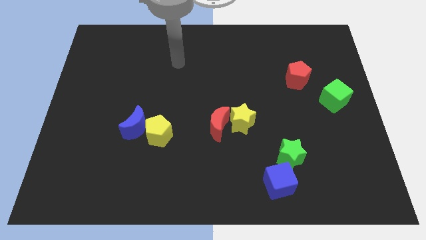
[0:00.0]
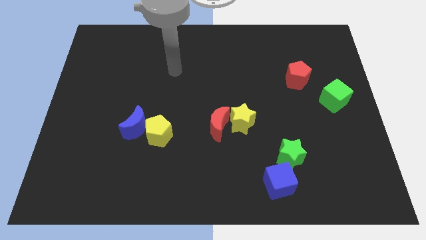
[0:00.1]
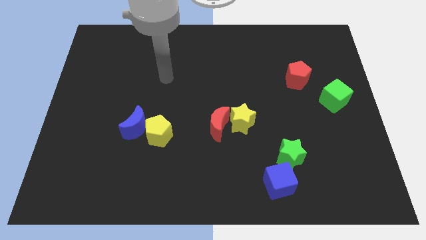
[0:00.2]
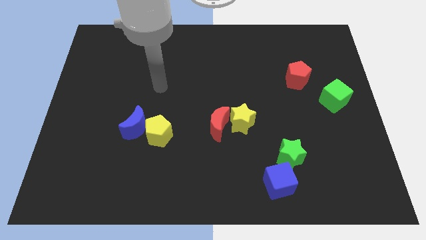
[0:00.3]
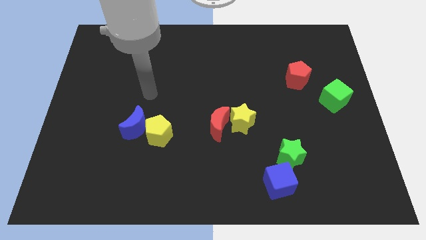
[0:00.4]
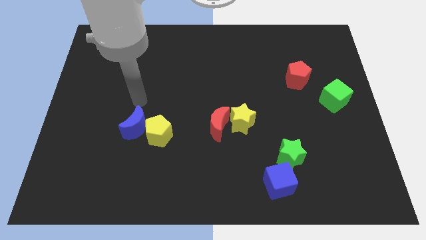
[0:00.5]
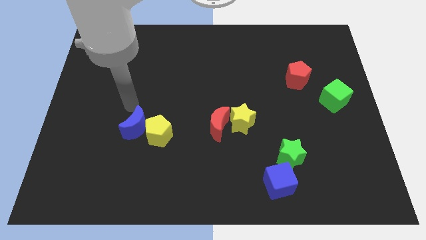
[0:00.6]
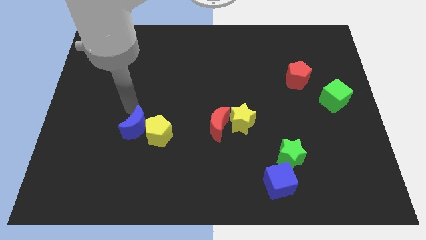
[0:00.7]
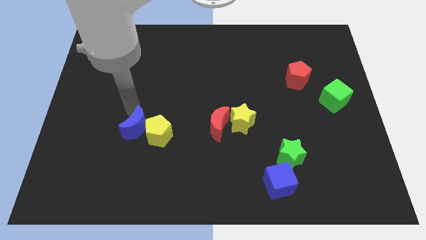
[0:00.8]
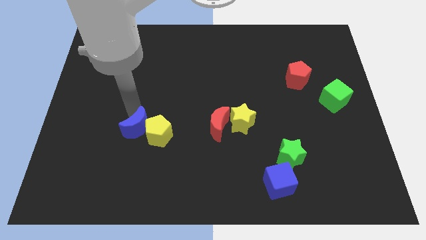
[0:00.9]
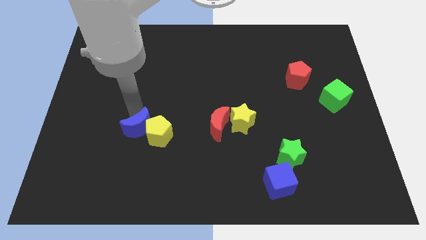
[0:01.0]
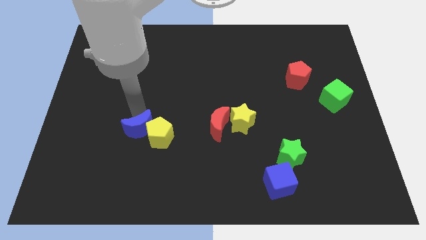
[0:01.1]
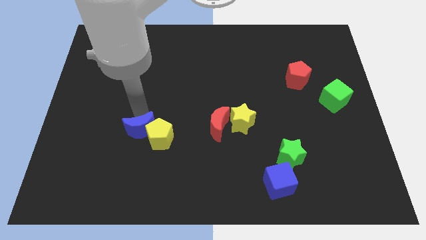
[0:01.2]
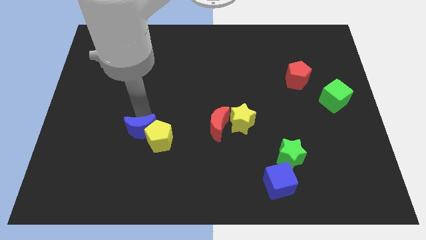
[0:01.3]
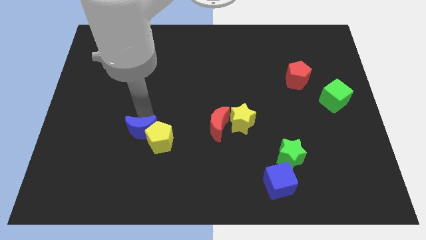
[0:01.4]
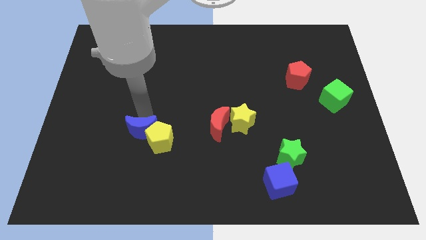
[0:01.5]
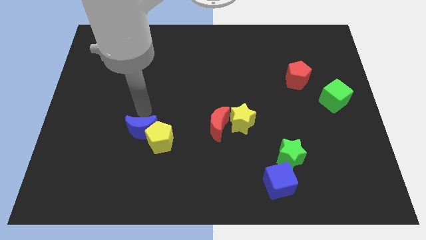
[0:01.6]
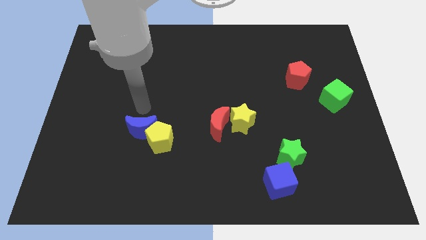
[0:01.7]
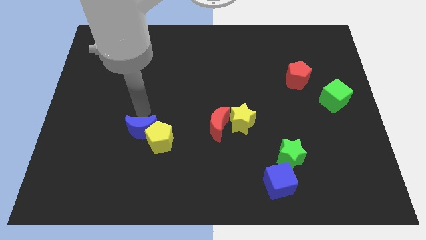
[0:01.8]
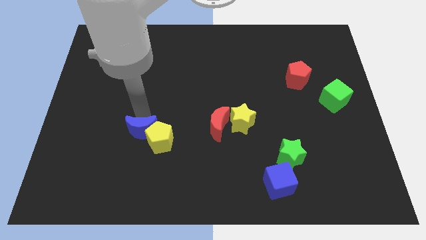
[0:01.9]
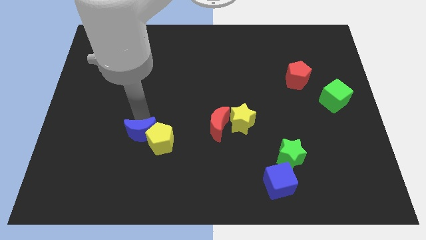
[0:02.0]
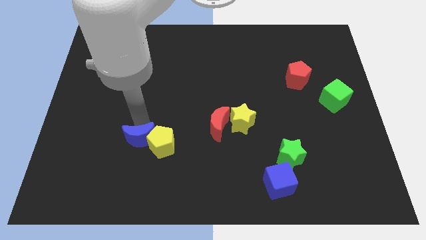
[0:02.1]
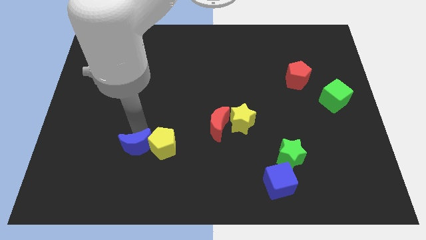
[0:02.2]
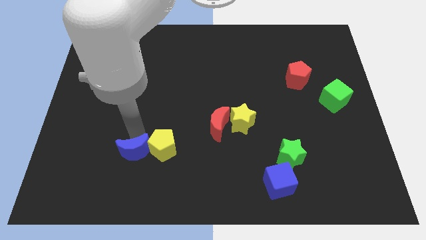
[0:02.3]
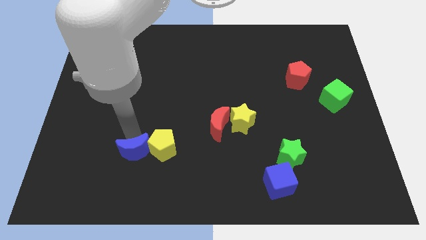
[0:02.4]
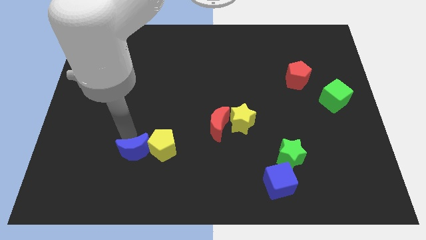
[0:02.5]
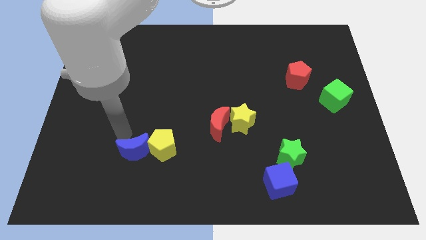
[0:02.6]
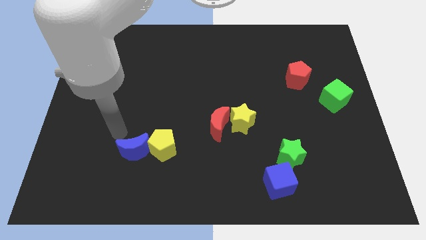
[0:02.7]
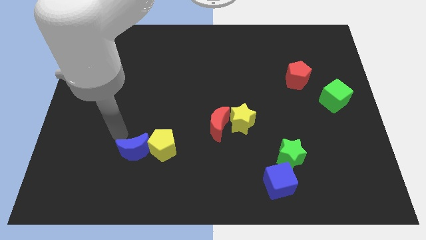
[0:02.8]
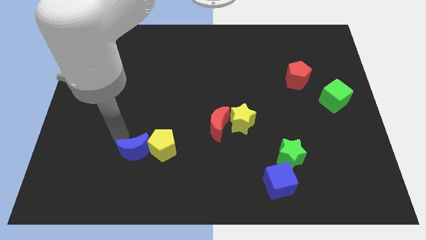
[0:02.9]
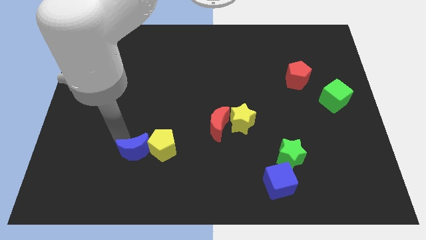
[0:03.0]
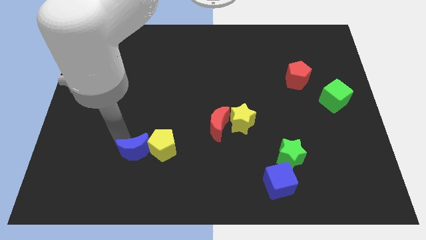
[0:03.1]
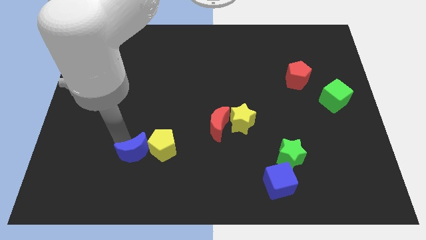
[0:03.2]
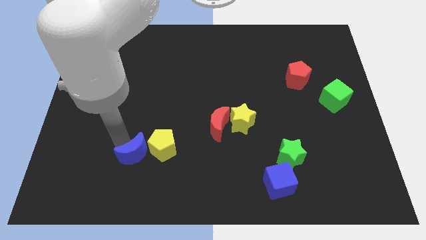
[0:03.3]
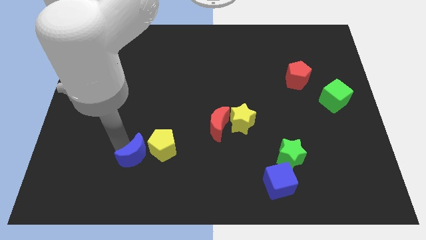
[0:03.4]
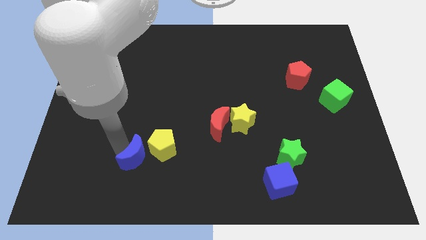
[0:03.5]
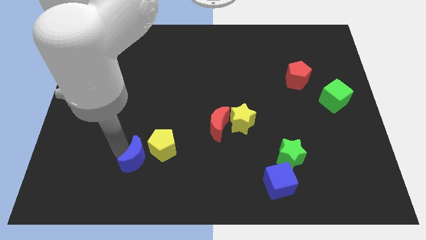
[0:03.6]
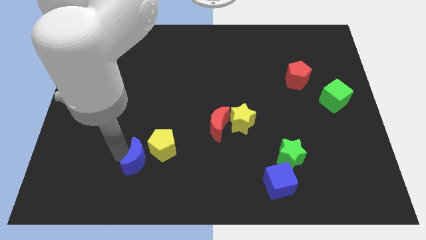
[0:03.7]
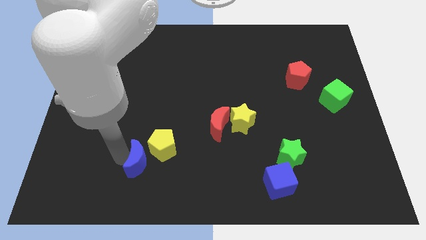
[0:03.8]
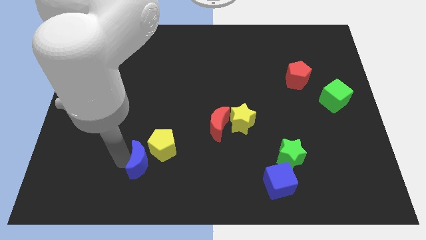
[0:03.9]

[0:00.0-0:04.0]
push the blue moon a little down and to the right

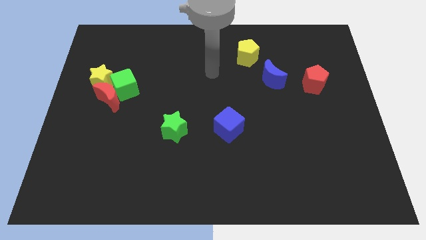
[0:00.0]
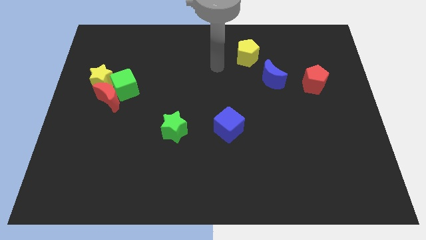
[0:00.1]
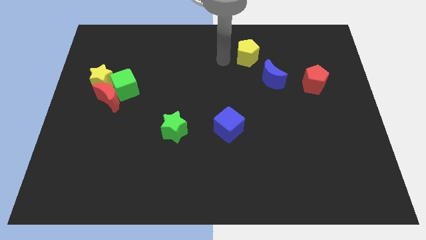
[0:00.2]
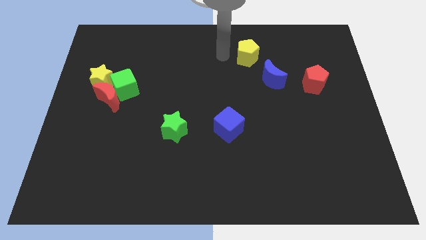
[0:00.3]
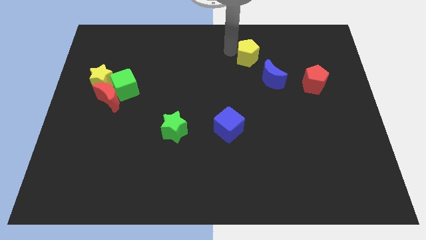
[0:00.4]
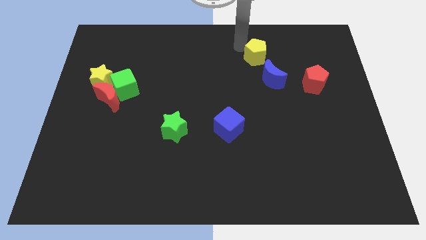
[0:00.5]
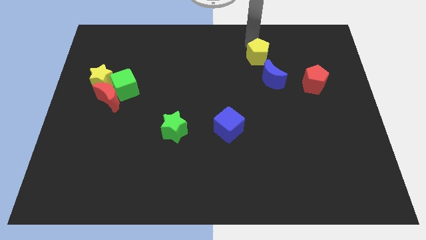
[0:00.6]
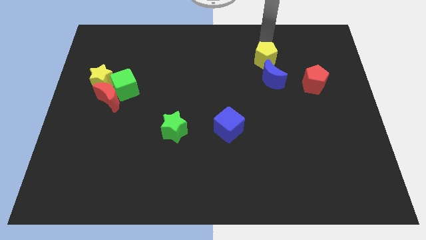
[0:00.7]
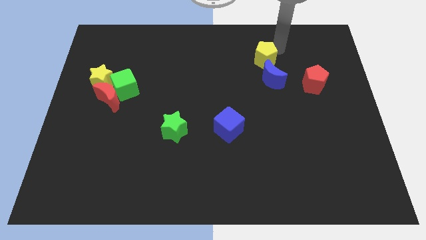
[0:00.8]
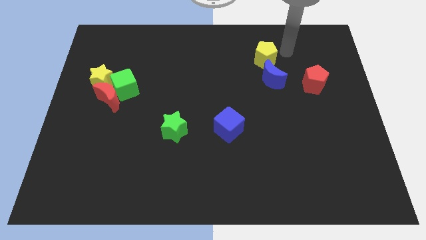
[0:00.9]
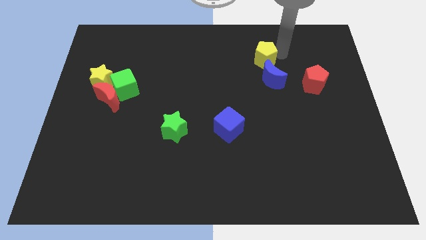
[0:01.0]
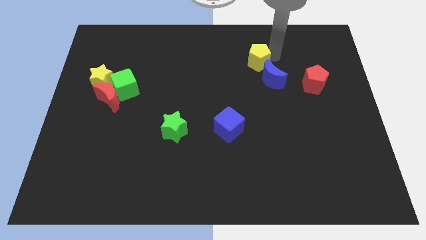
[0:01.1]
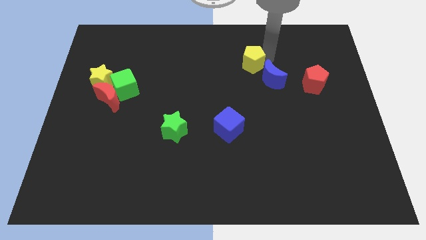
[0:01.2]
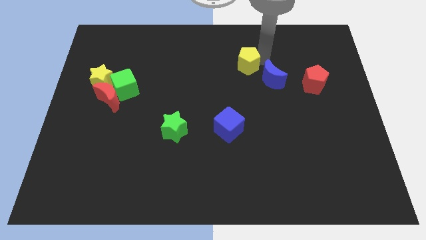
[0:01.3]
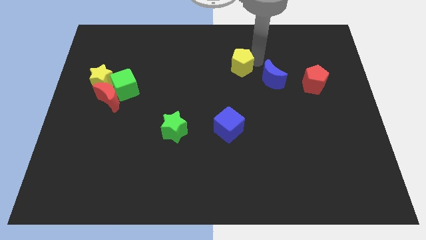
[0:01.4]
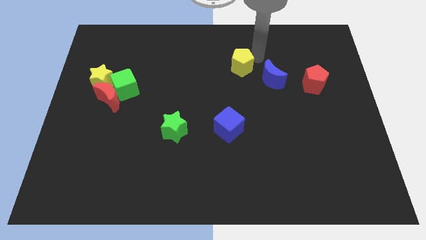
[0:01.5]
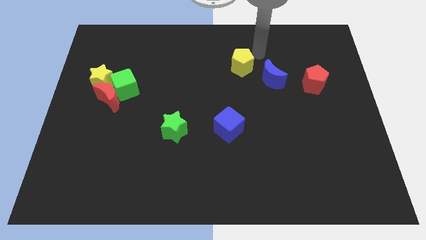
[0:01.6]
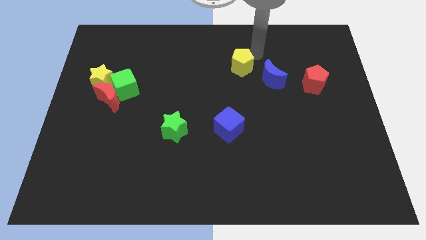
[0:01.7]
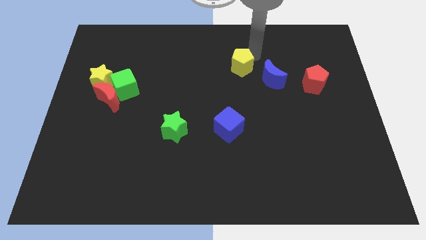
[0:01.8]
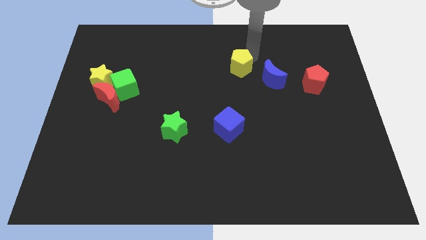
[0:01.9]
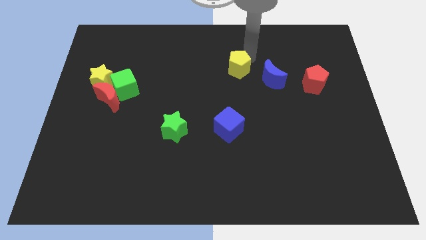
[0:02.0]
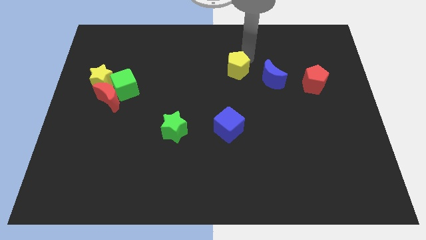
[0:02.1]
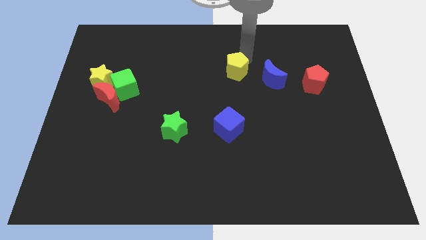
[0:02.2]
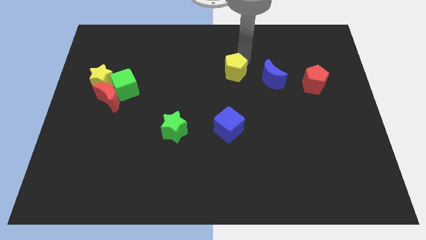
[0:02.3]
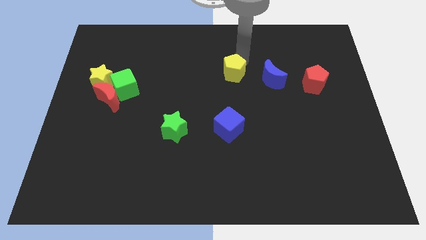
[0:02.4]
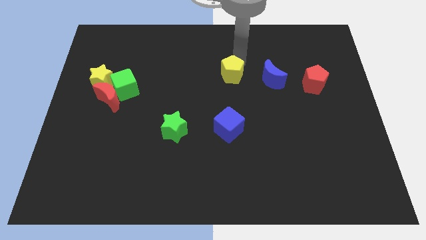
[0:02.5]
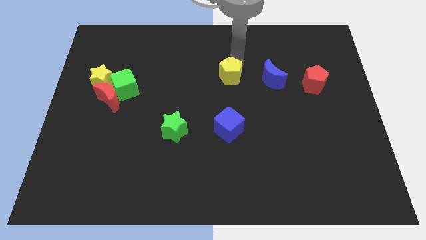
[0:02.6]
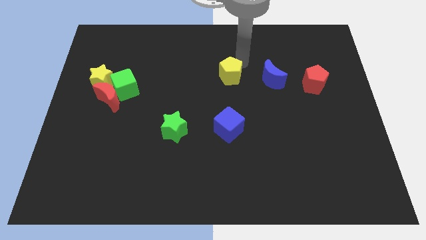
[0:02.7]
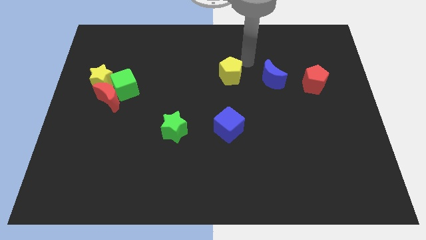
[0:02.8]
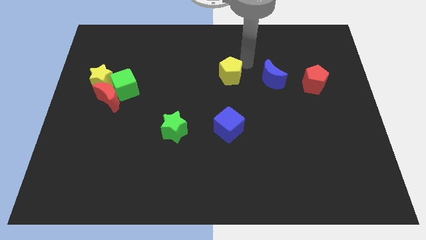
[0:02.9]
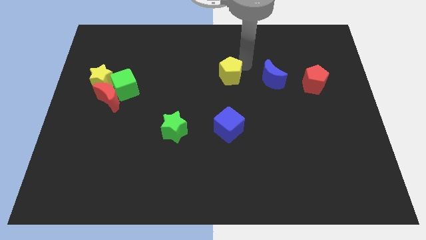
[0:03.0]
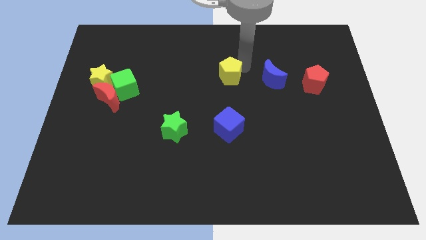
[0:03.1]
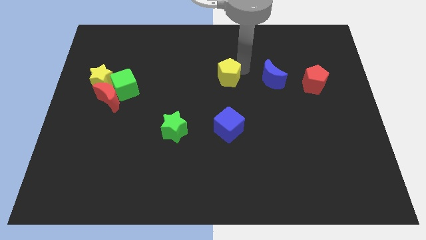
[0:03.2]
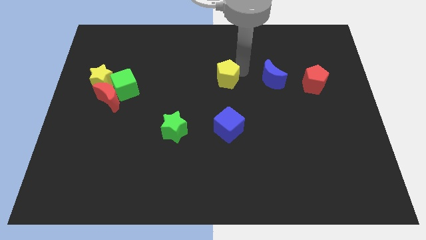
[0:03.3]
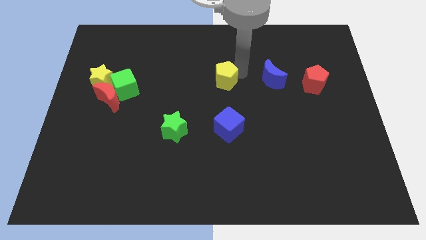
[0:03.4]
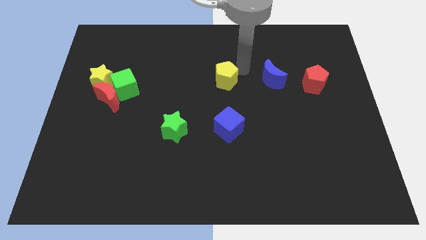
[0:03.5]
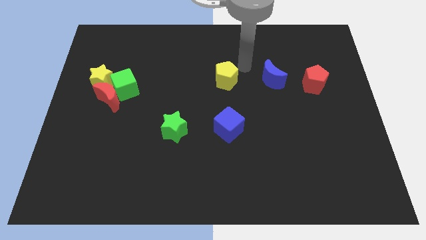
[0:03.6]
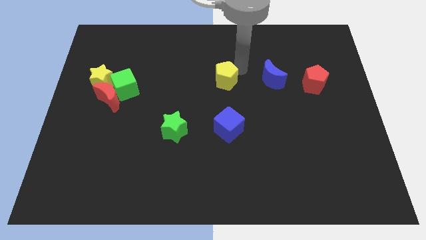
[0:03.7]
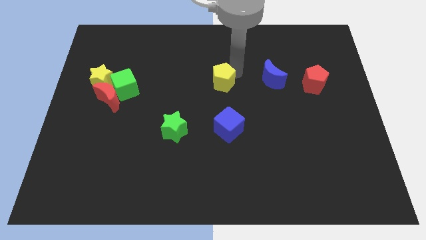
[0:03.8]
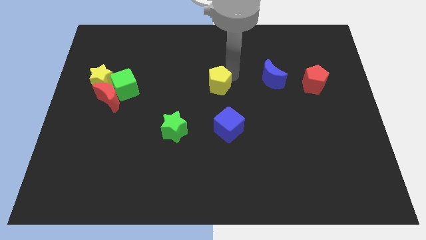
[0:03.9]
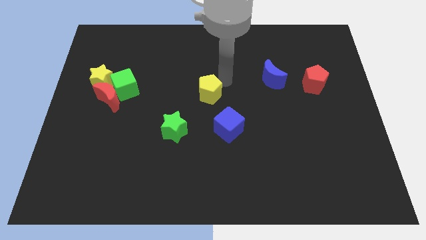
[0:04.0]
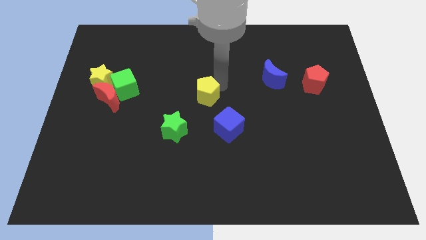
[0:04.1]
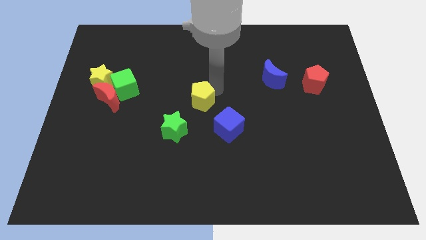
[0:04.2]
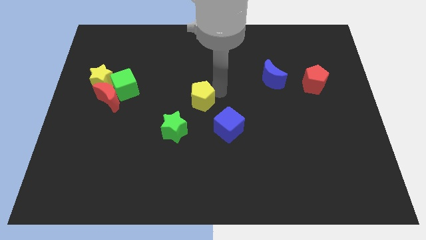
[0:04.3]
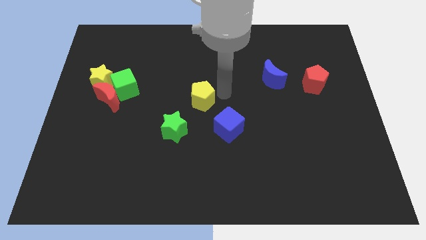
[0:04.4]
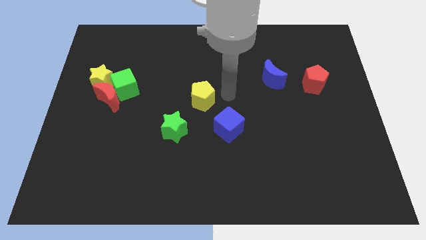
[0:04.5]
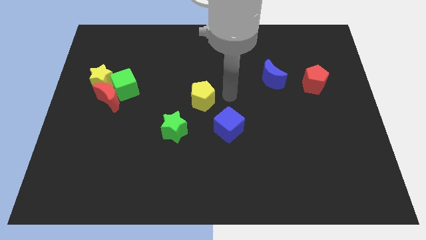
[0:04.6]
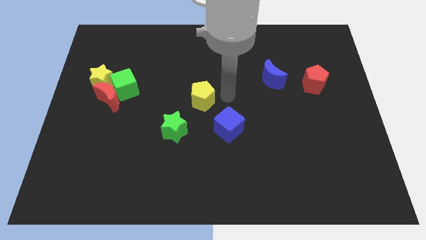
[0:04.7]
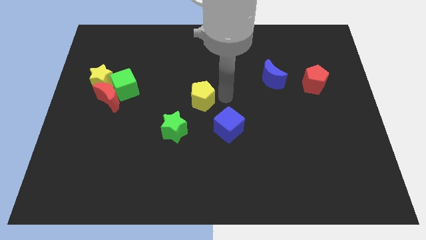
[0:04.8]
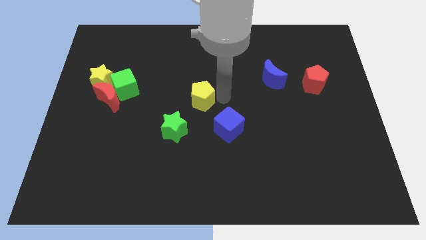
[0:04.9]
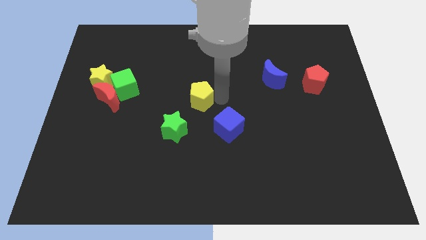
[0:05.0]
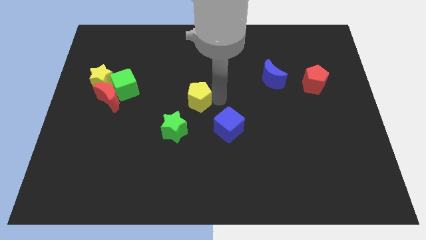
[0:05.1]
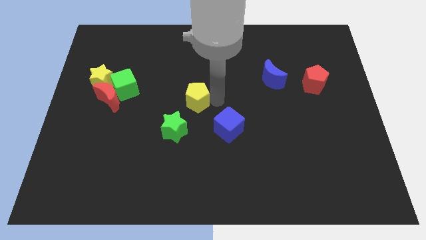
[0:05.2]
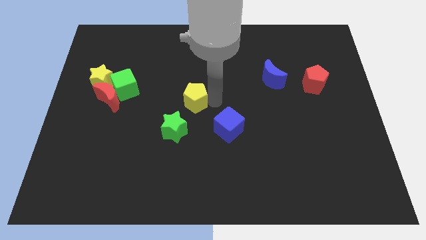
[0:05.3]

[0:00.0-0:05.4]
push the yellow pentagon down and then to the left
